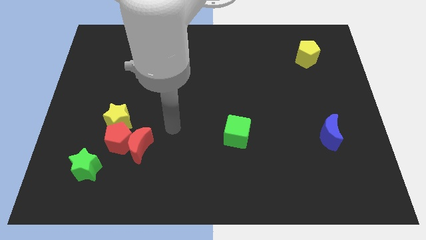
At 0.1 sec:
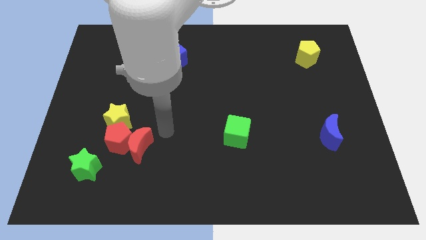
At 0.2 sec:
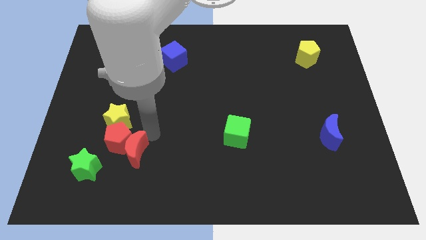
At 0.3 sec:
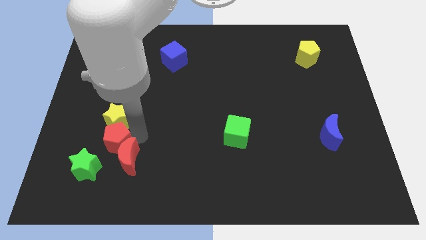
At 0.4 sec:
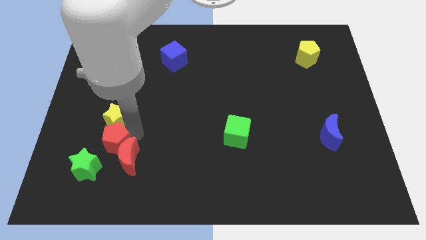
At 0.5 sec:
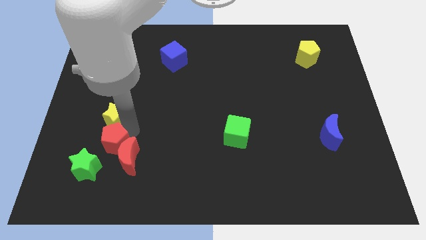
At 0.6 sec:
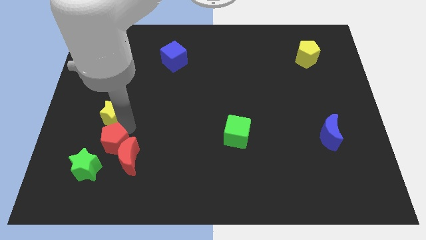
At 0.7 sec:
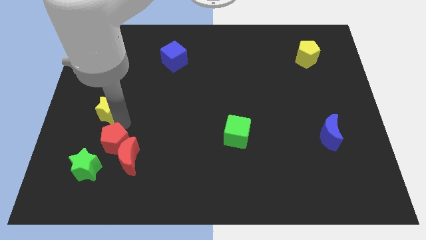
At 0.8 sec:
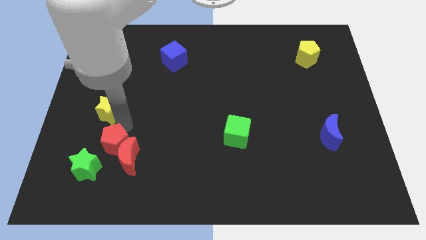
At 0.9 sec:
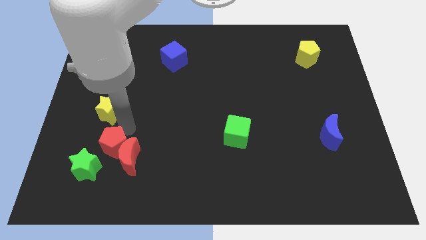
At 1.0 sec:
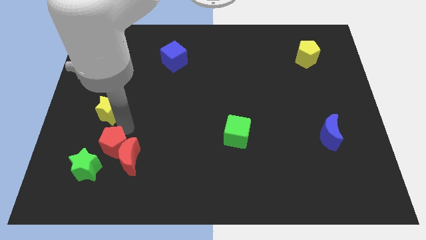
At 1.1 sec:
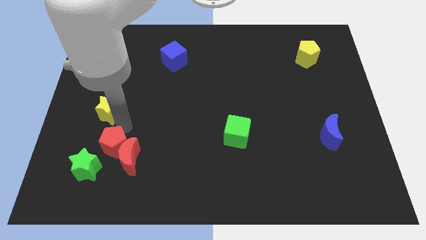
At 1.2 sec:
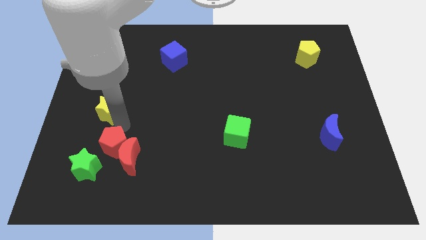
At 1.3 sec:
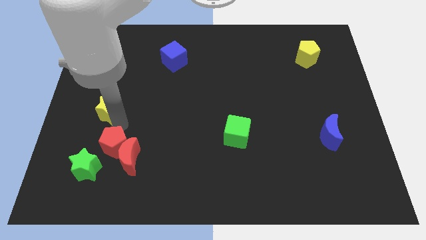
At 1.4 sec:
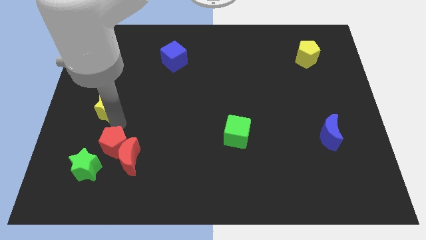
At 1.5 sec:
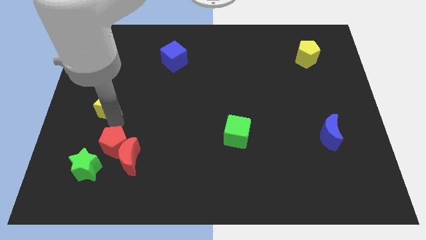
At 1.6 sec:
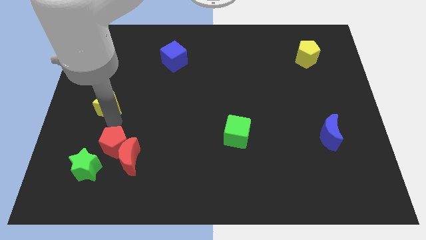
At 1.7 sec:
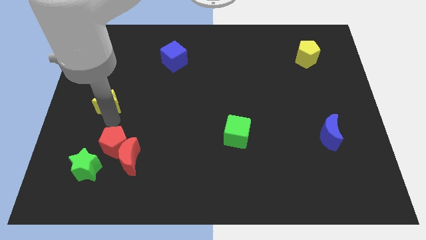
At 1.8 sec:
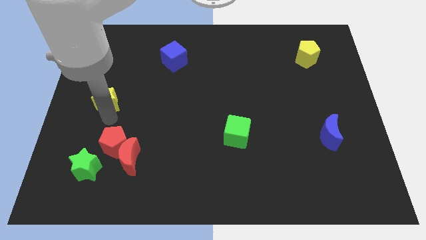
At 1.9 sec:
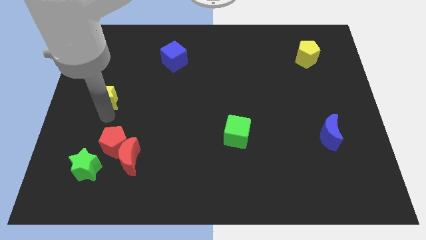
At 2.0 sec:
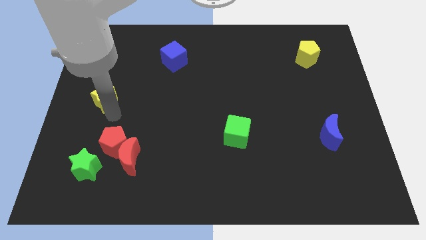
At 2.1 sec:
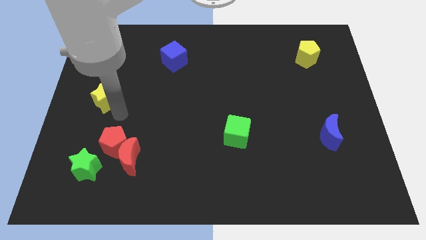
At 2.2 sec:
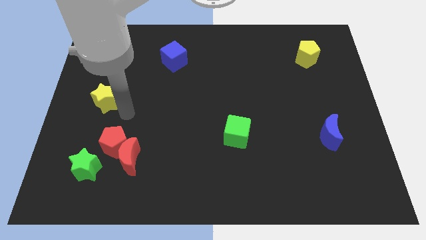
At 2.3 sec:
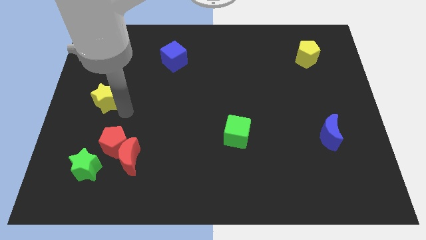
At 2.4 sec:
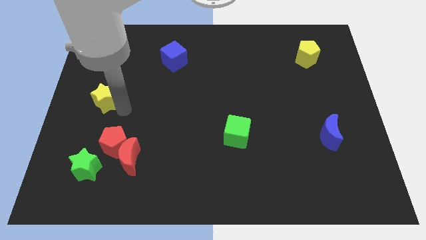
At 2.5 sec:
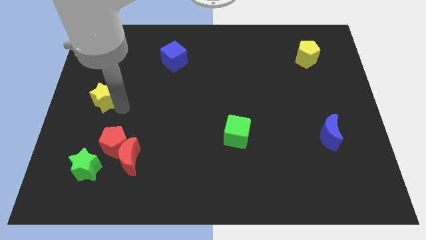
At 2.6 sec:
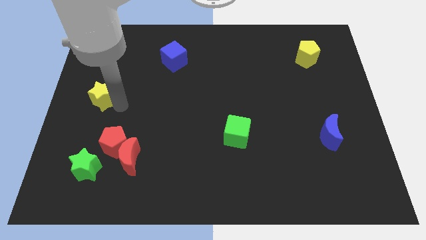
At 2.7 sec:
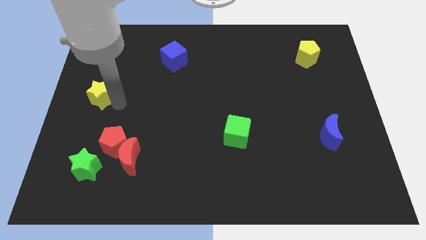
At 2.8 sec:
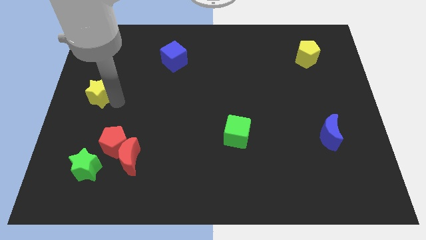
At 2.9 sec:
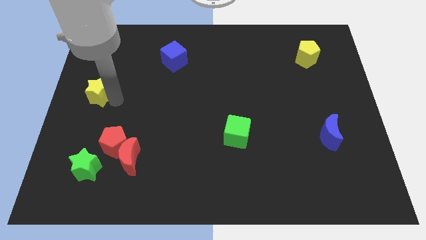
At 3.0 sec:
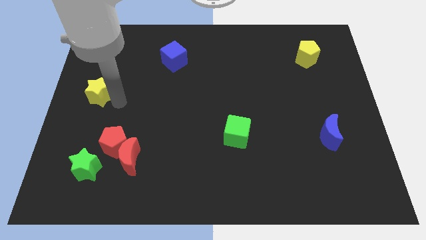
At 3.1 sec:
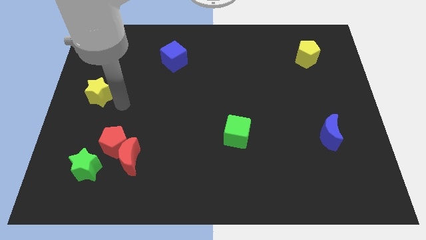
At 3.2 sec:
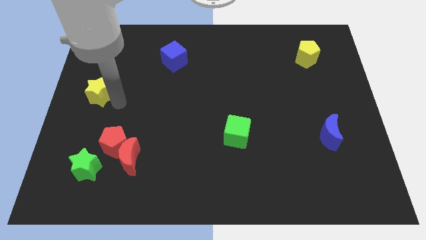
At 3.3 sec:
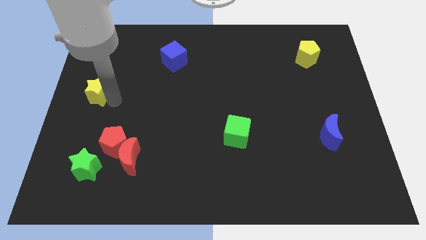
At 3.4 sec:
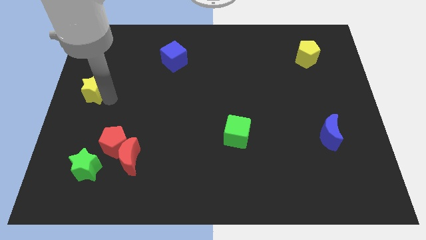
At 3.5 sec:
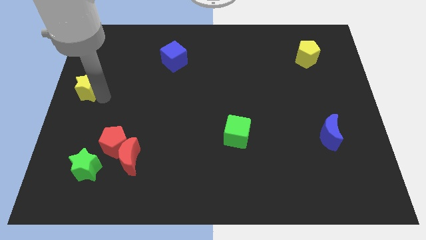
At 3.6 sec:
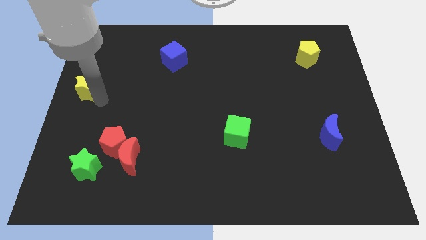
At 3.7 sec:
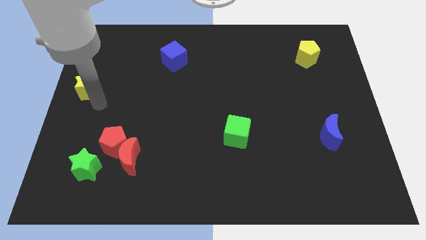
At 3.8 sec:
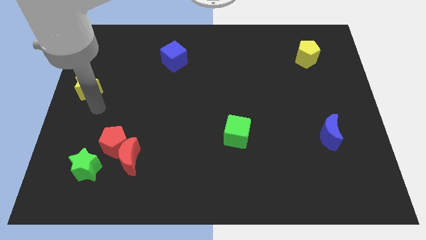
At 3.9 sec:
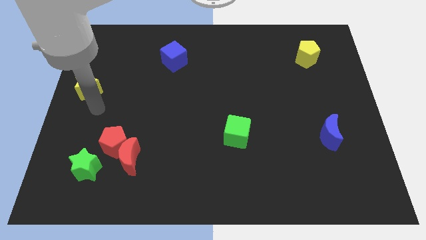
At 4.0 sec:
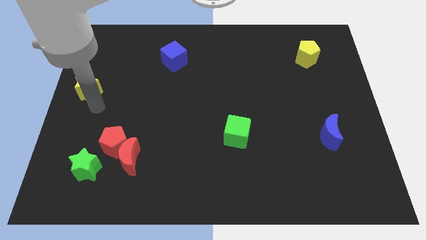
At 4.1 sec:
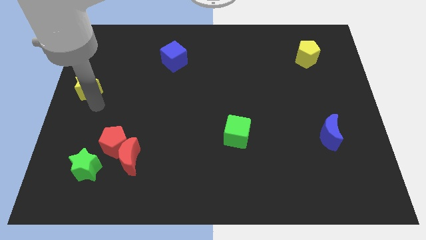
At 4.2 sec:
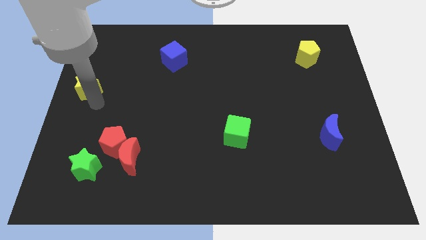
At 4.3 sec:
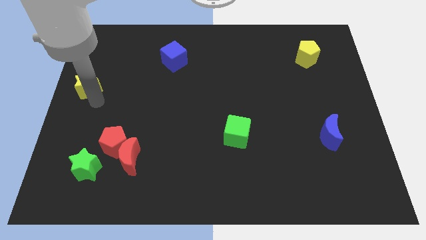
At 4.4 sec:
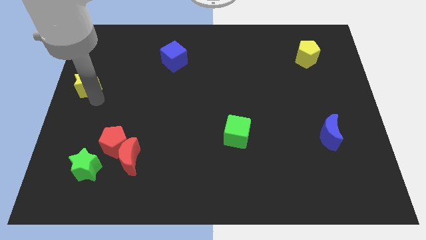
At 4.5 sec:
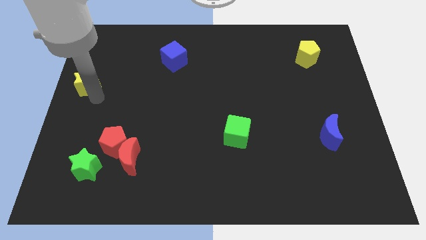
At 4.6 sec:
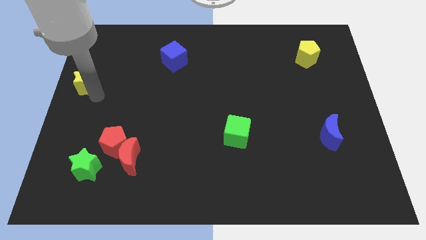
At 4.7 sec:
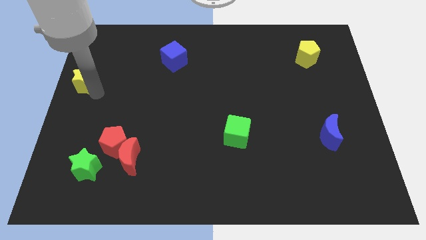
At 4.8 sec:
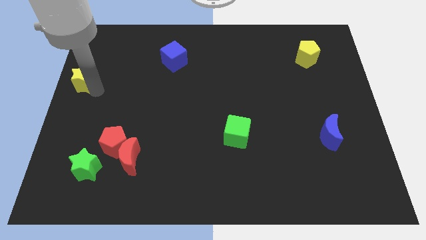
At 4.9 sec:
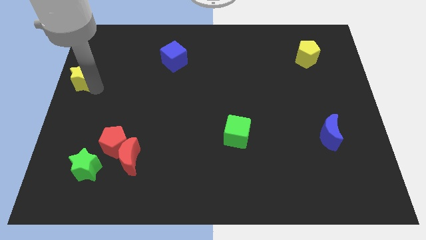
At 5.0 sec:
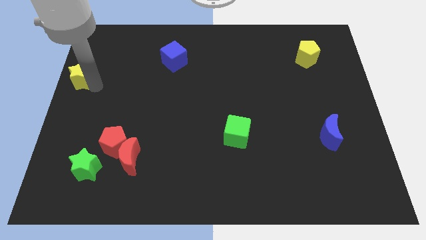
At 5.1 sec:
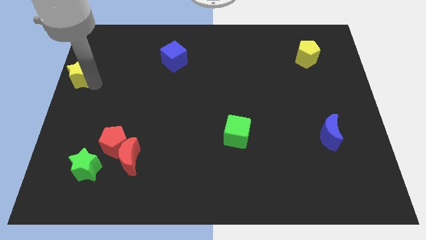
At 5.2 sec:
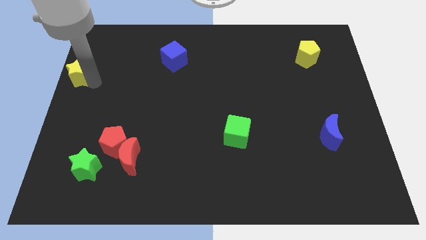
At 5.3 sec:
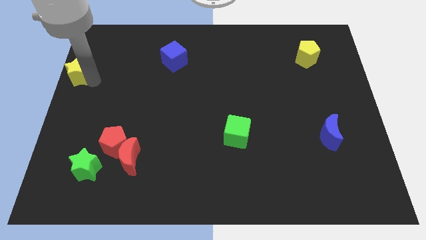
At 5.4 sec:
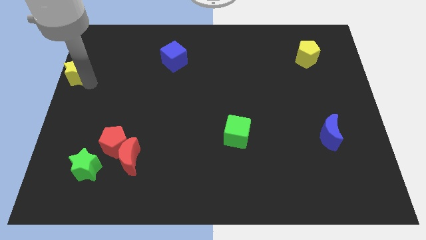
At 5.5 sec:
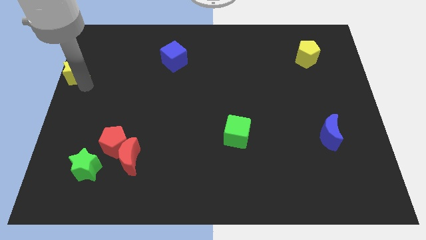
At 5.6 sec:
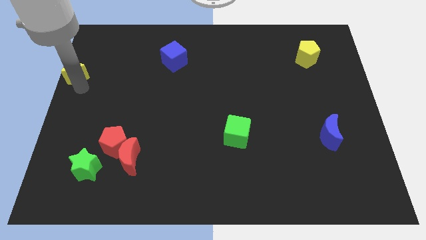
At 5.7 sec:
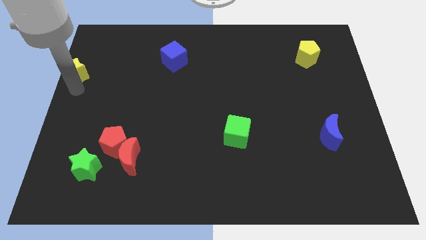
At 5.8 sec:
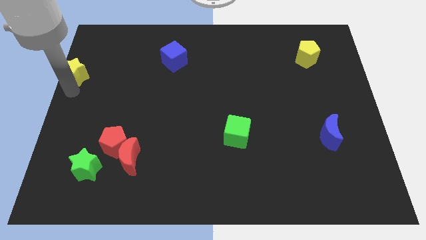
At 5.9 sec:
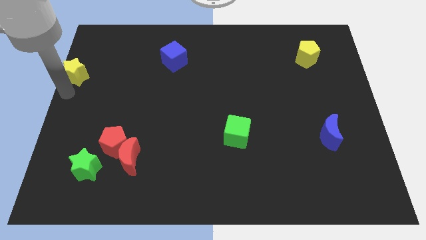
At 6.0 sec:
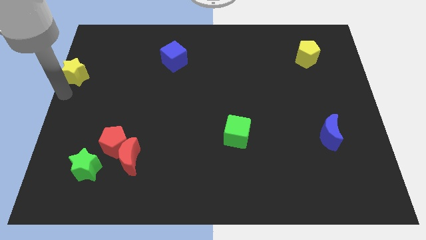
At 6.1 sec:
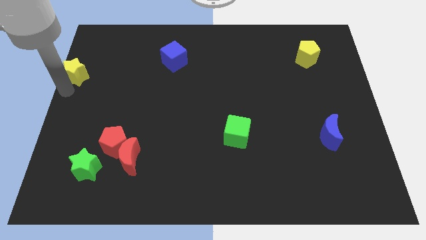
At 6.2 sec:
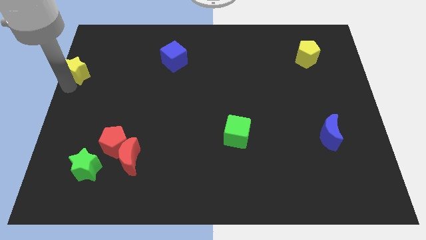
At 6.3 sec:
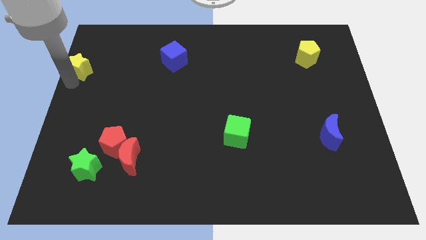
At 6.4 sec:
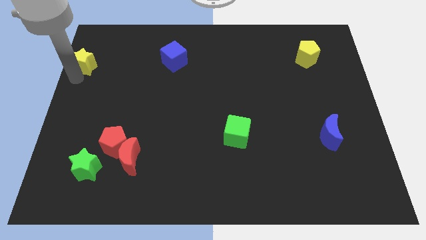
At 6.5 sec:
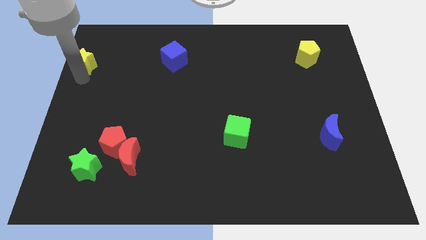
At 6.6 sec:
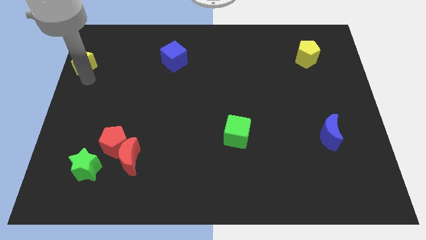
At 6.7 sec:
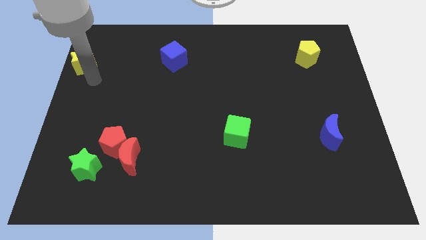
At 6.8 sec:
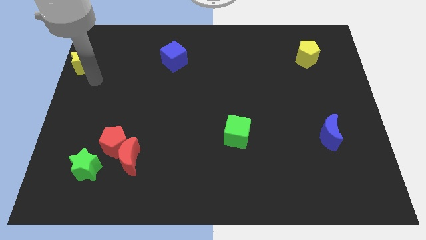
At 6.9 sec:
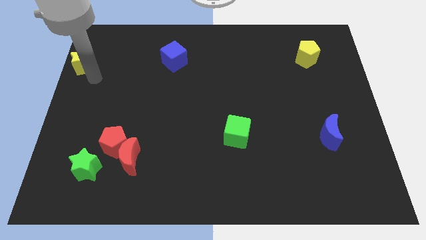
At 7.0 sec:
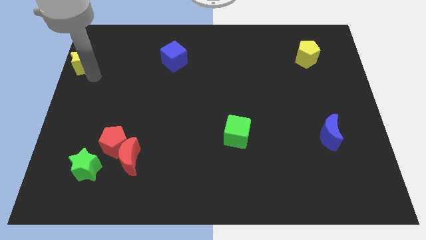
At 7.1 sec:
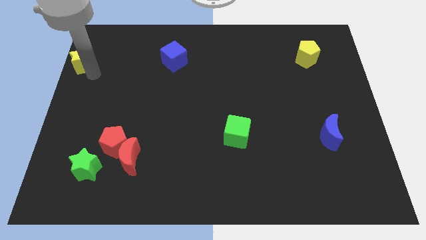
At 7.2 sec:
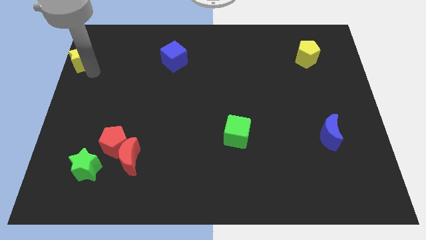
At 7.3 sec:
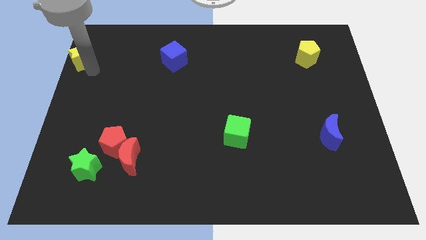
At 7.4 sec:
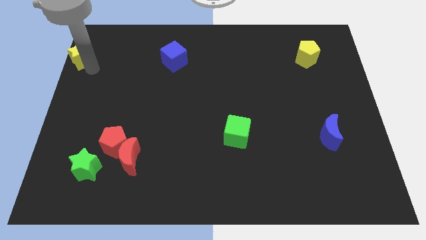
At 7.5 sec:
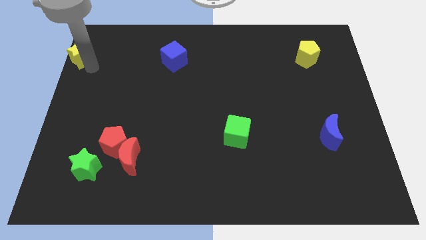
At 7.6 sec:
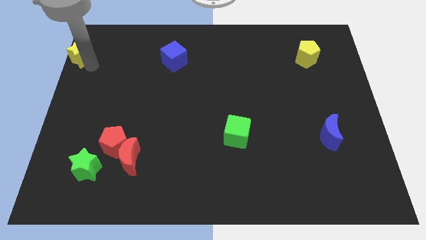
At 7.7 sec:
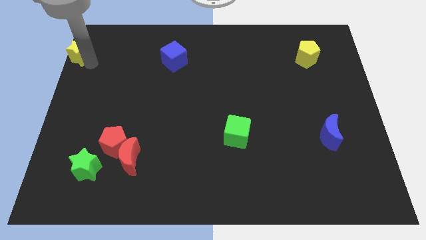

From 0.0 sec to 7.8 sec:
move the yellow star to the top left
